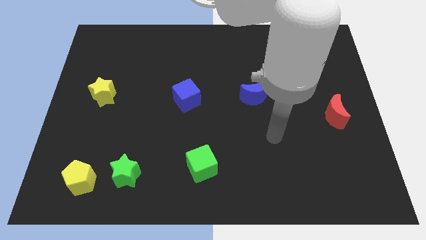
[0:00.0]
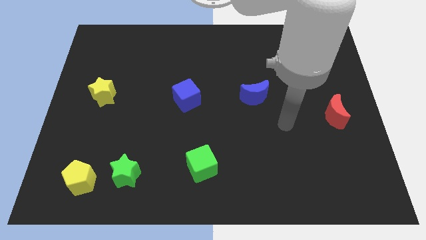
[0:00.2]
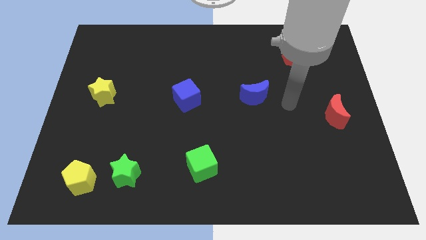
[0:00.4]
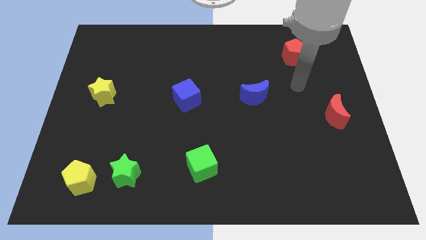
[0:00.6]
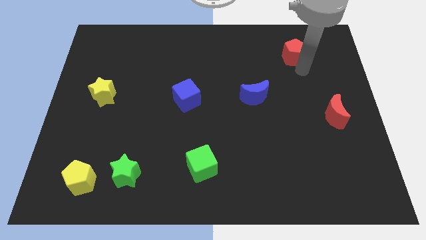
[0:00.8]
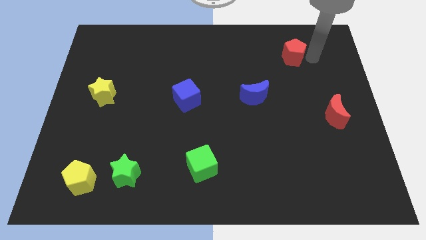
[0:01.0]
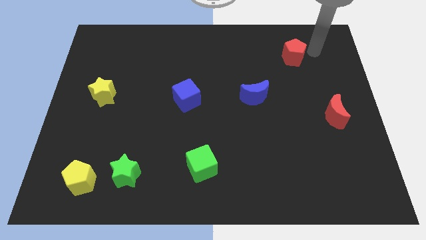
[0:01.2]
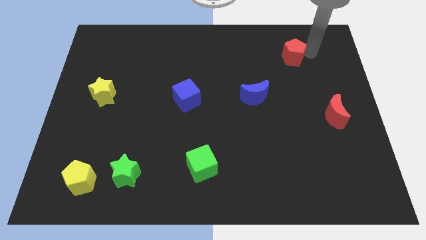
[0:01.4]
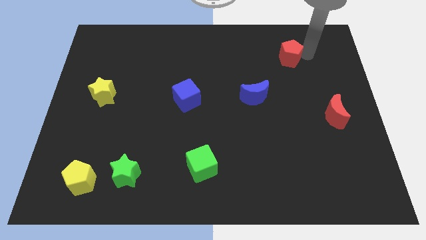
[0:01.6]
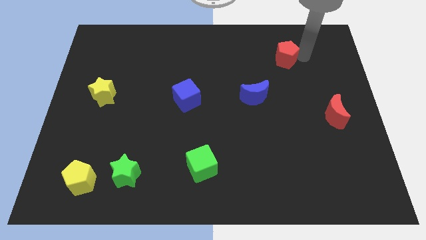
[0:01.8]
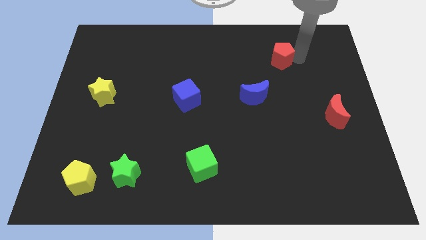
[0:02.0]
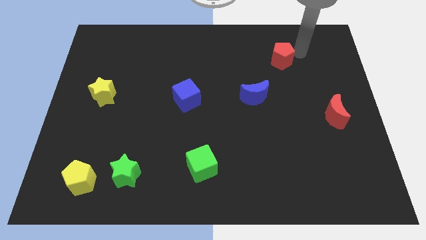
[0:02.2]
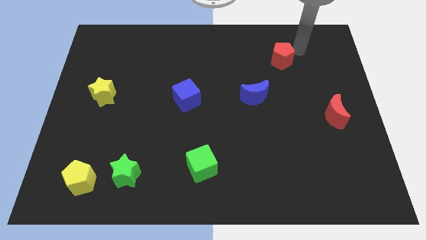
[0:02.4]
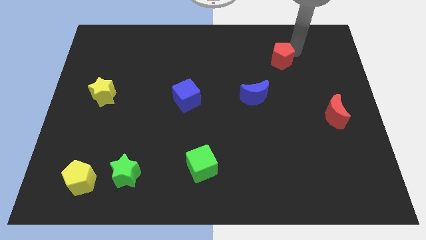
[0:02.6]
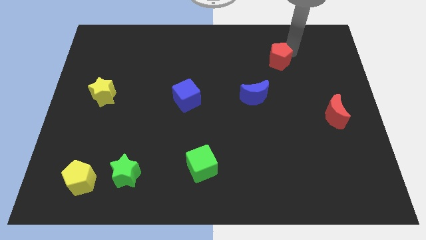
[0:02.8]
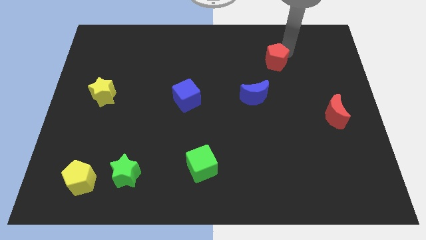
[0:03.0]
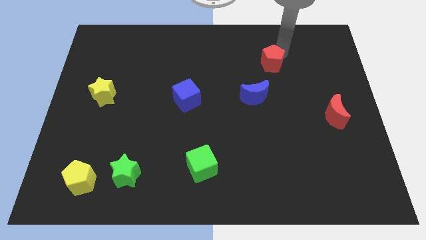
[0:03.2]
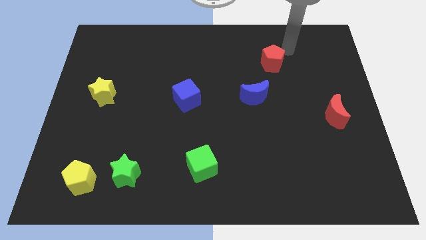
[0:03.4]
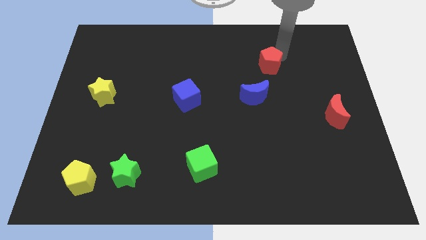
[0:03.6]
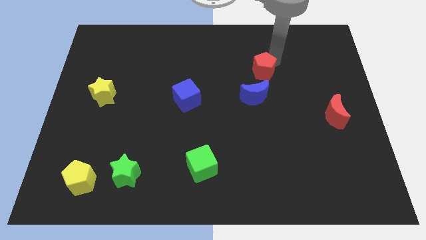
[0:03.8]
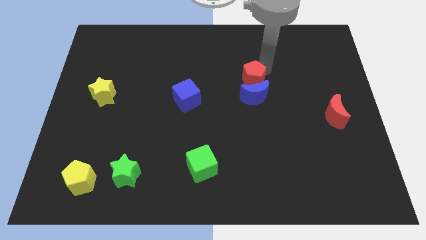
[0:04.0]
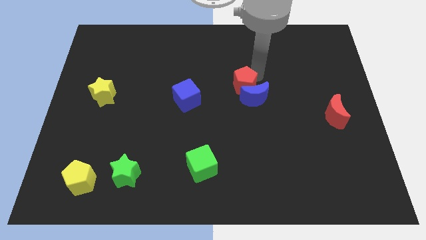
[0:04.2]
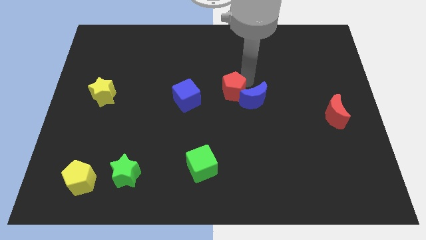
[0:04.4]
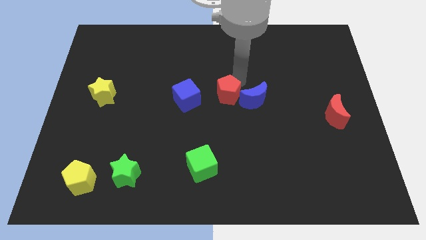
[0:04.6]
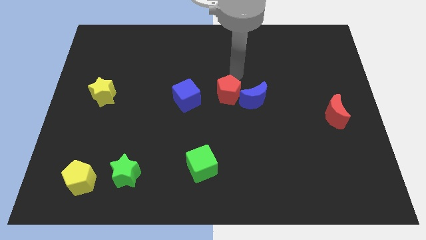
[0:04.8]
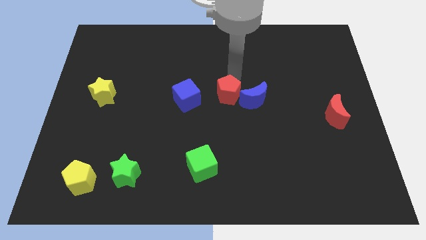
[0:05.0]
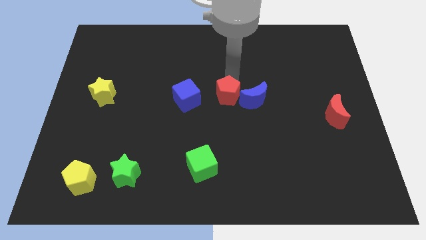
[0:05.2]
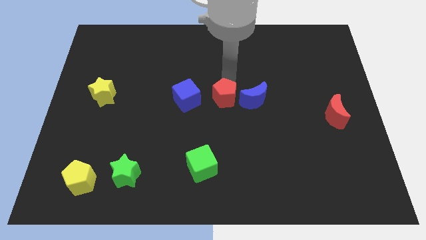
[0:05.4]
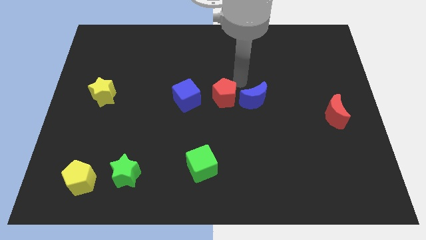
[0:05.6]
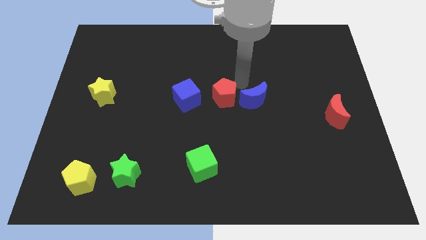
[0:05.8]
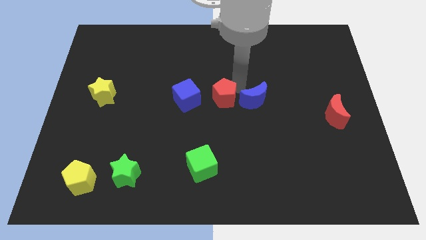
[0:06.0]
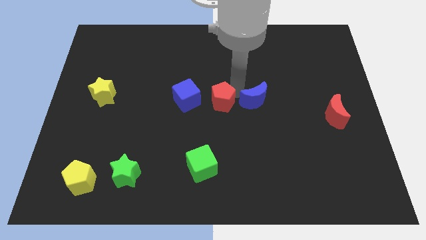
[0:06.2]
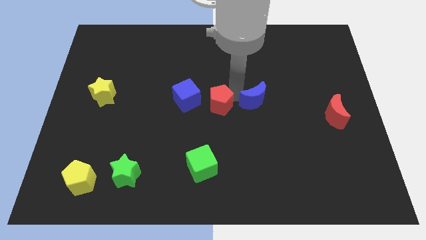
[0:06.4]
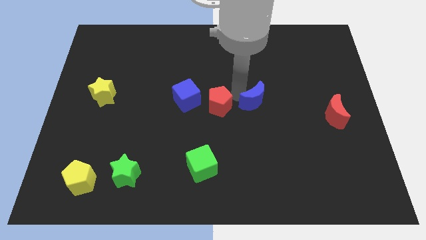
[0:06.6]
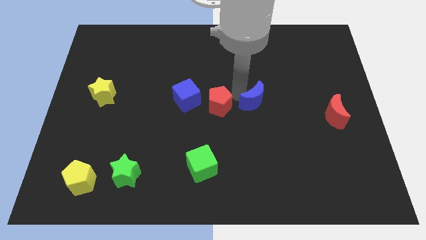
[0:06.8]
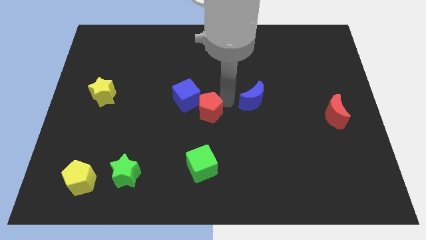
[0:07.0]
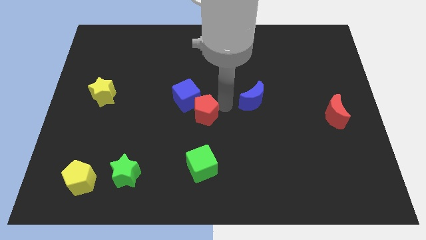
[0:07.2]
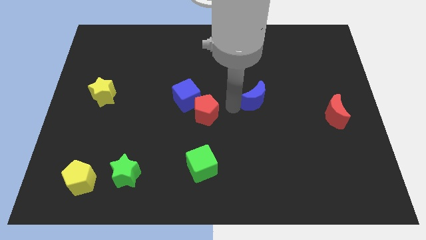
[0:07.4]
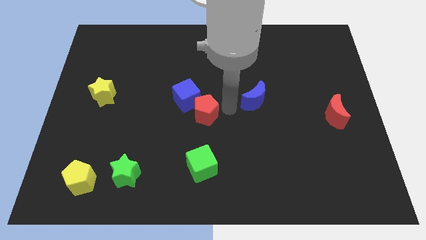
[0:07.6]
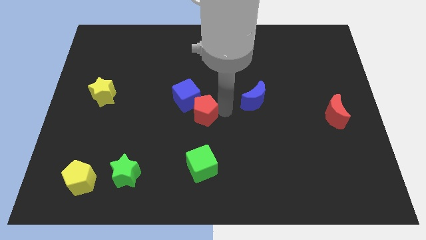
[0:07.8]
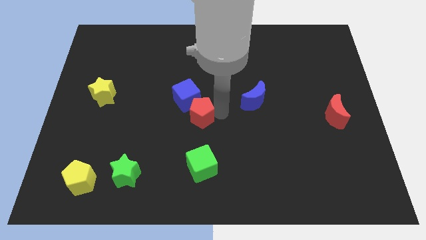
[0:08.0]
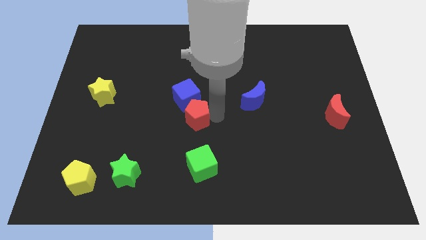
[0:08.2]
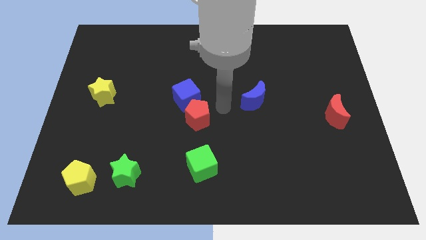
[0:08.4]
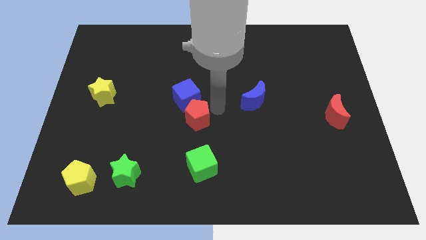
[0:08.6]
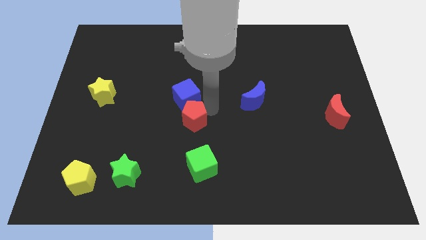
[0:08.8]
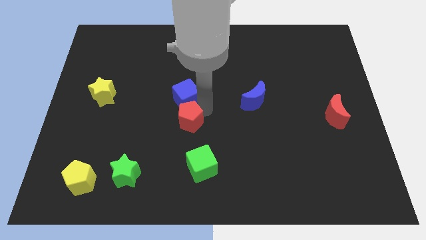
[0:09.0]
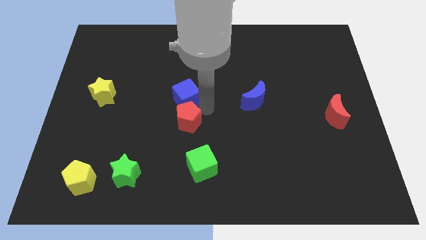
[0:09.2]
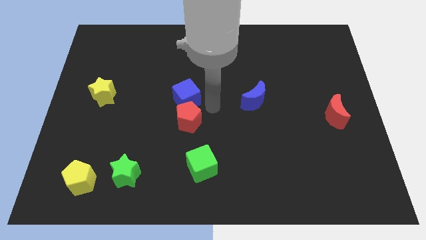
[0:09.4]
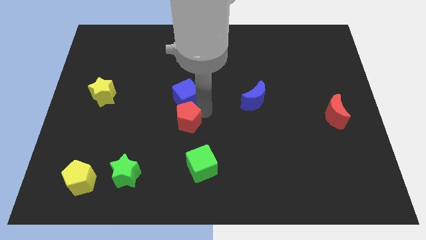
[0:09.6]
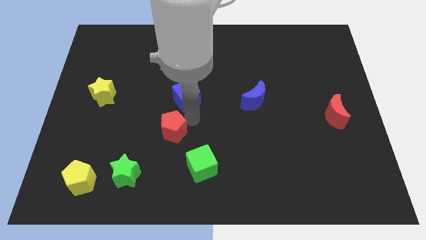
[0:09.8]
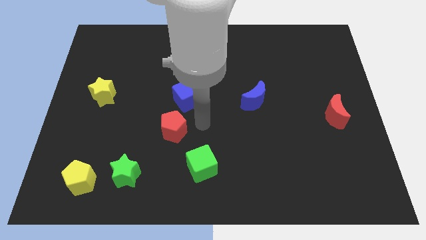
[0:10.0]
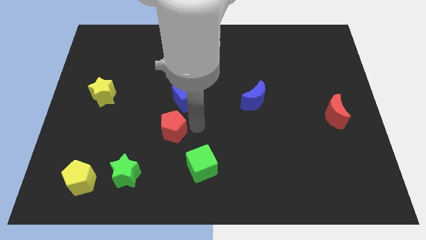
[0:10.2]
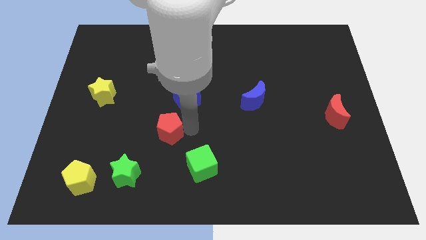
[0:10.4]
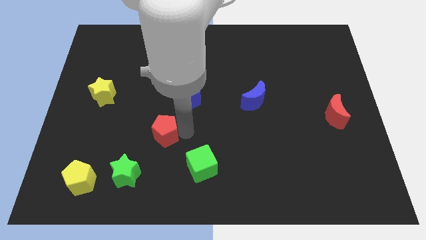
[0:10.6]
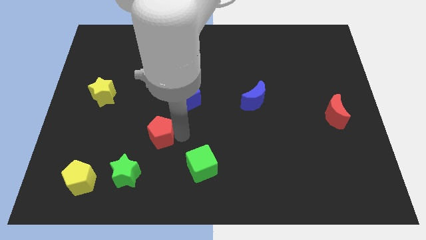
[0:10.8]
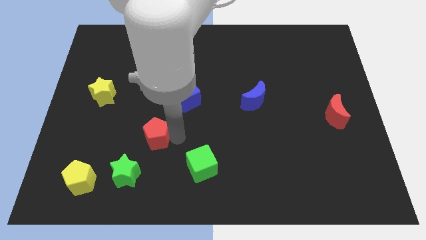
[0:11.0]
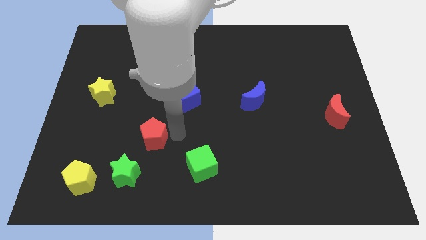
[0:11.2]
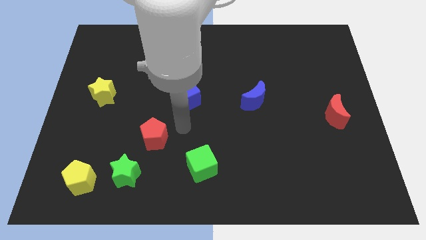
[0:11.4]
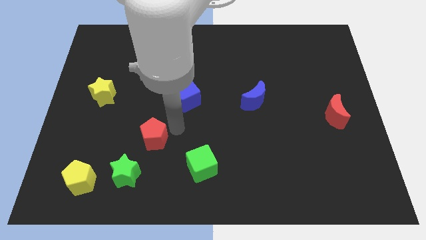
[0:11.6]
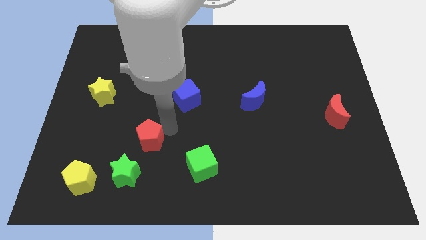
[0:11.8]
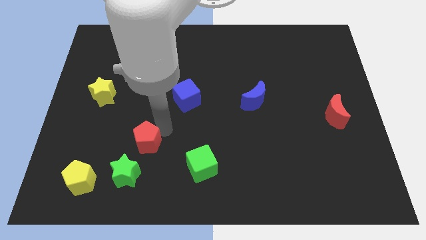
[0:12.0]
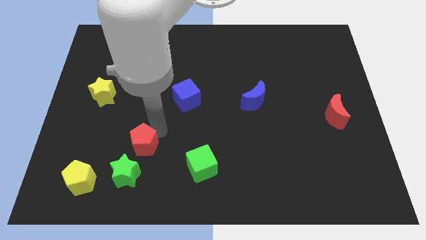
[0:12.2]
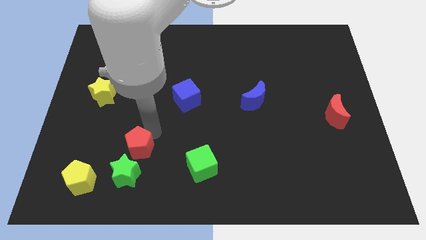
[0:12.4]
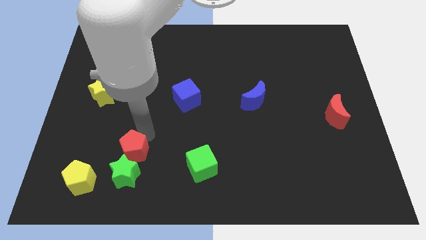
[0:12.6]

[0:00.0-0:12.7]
slide the red pentagon to the top right of the yellow pentagon

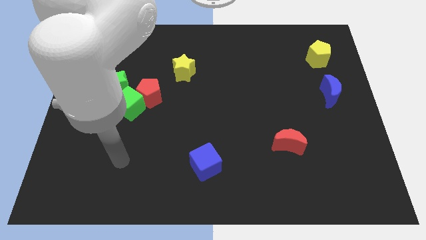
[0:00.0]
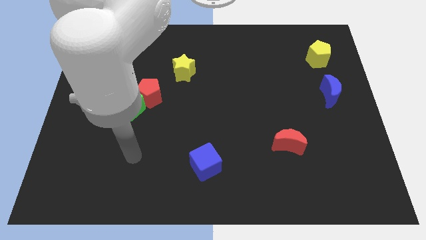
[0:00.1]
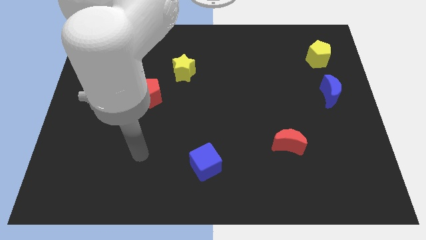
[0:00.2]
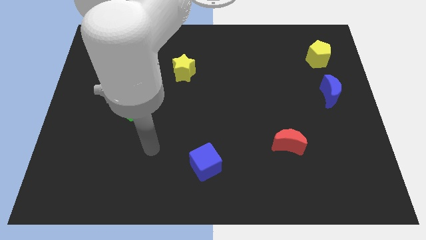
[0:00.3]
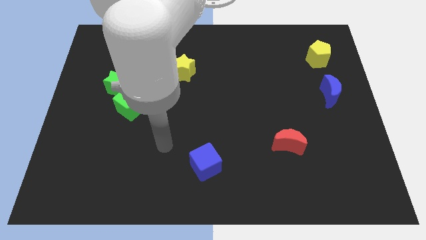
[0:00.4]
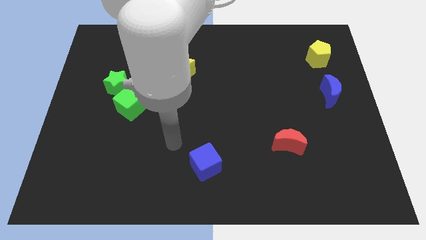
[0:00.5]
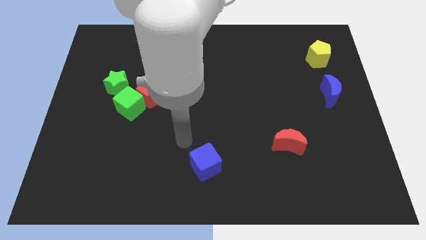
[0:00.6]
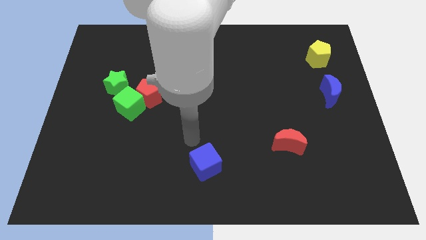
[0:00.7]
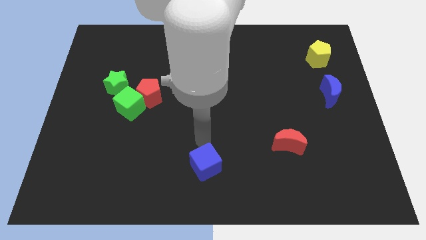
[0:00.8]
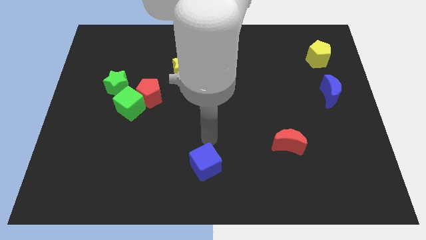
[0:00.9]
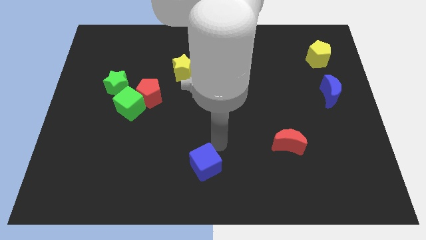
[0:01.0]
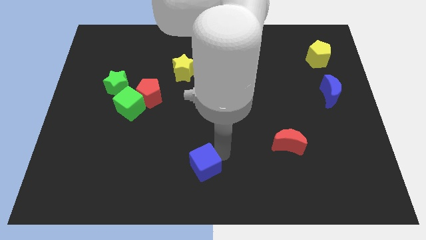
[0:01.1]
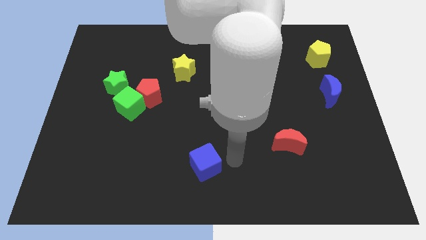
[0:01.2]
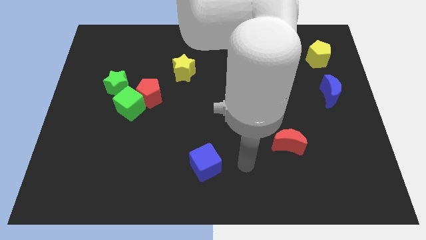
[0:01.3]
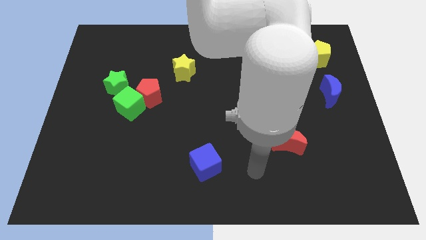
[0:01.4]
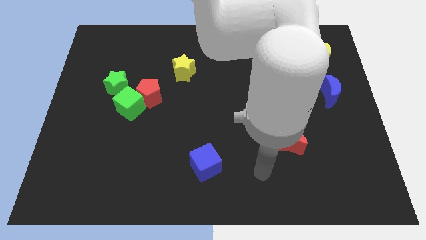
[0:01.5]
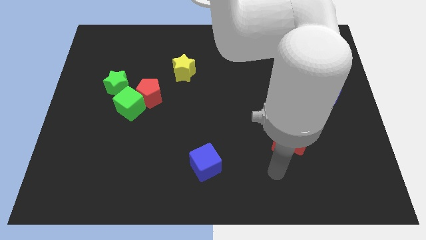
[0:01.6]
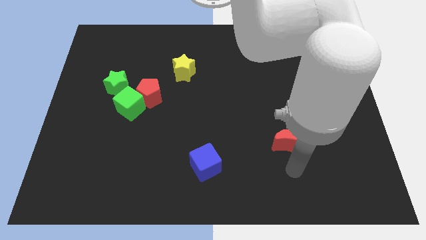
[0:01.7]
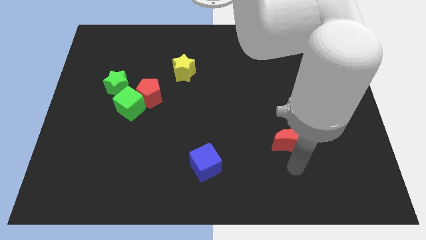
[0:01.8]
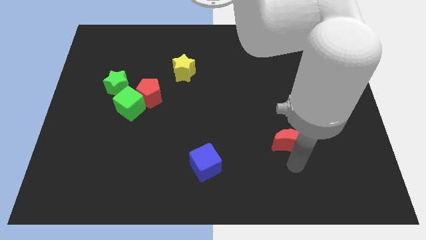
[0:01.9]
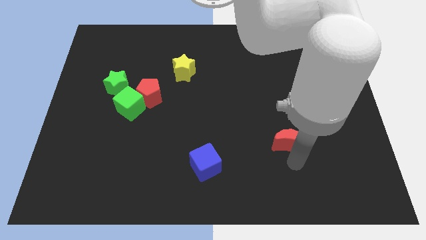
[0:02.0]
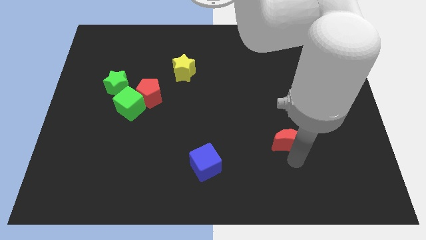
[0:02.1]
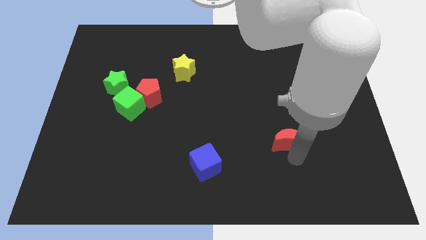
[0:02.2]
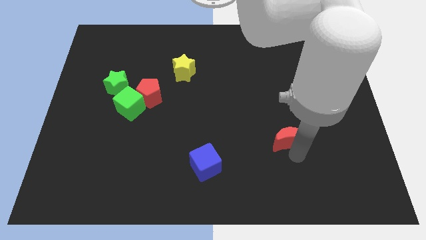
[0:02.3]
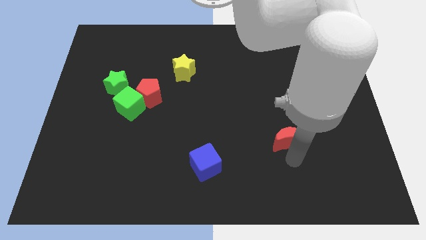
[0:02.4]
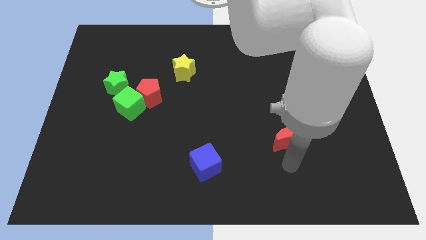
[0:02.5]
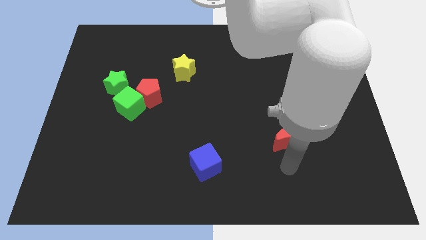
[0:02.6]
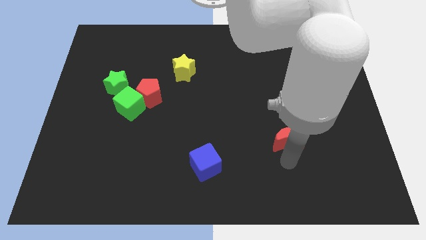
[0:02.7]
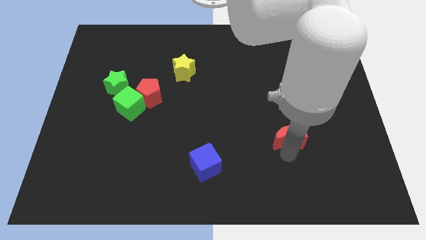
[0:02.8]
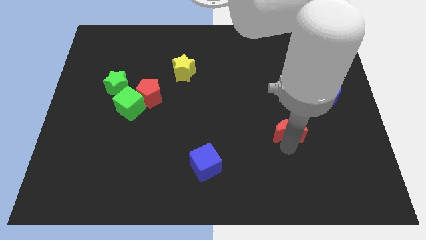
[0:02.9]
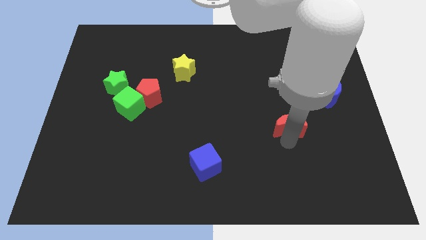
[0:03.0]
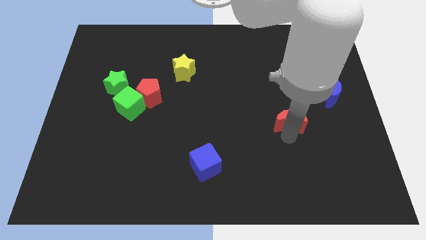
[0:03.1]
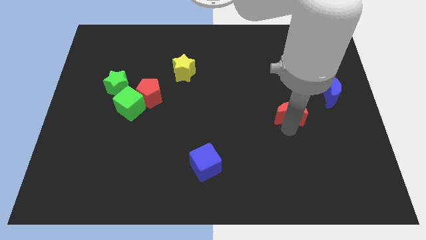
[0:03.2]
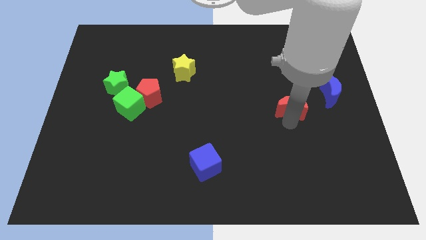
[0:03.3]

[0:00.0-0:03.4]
slide the red moon left of the blue moon
